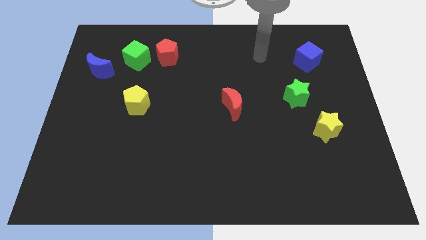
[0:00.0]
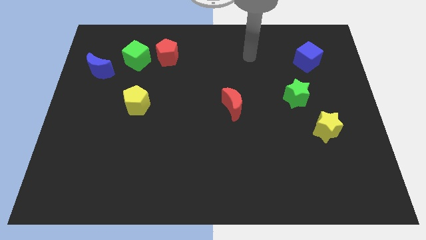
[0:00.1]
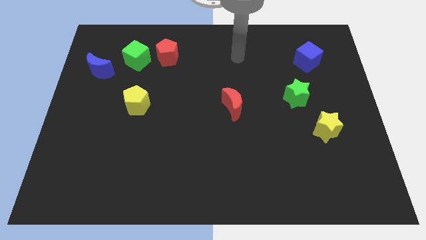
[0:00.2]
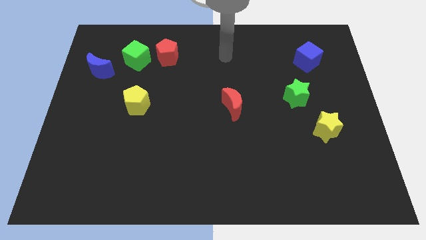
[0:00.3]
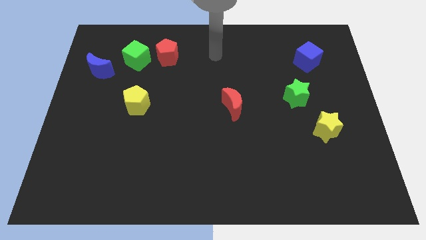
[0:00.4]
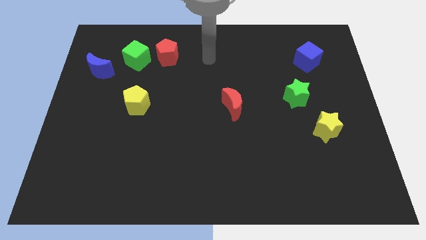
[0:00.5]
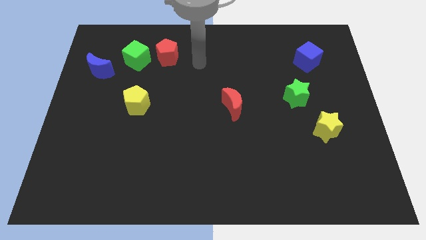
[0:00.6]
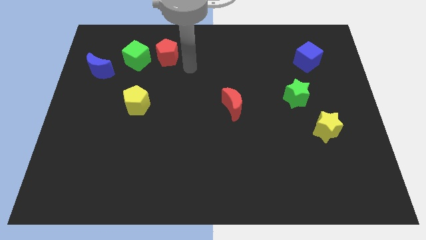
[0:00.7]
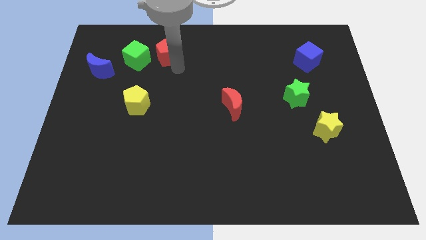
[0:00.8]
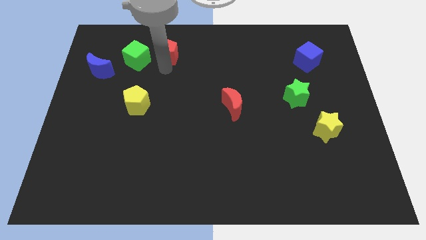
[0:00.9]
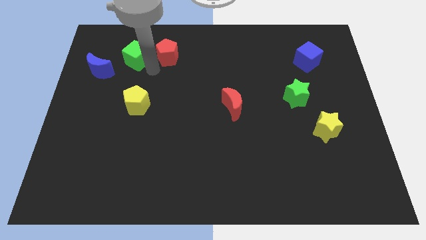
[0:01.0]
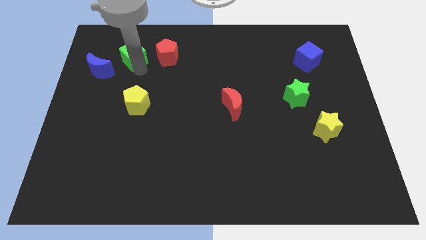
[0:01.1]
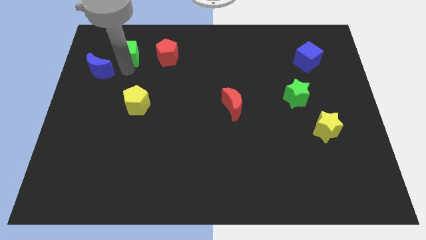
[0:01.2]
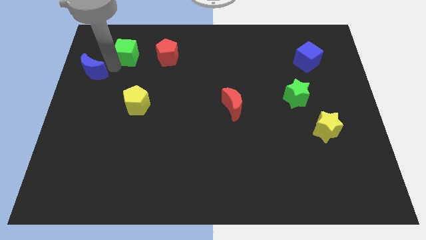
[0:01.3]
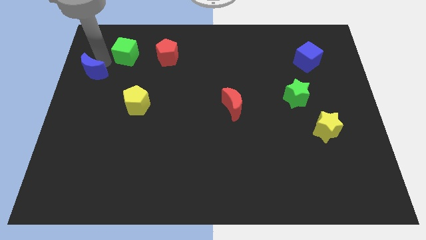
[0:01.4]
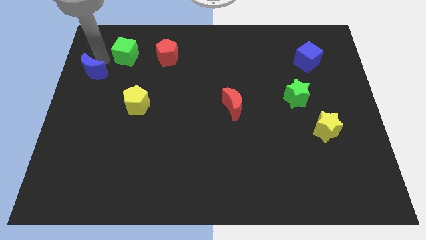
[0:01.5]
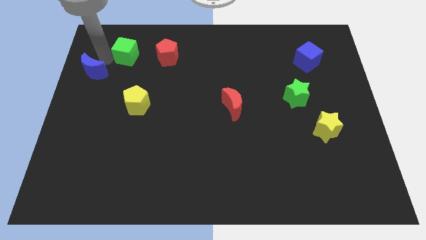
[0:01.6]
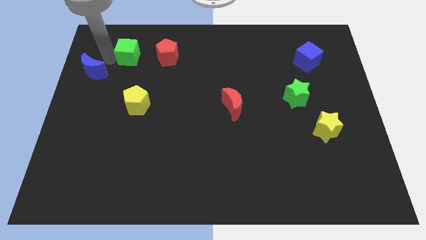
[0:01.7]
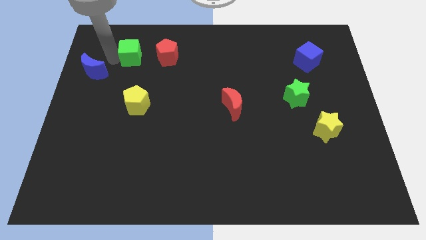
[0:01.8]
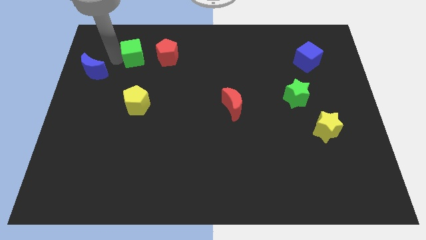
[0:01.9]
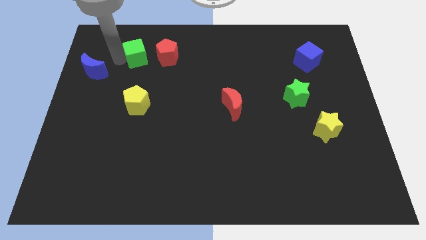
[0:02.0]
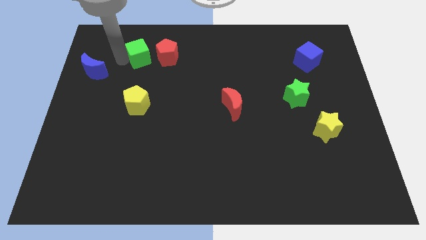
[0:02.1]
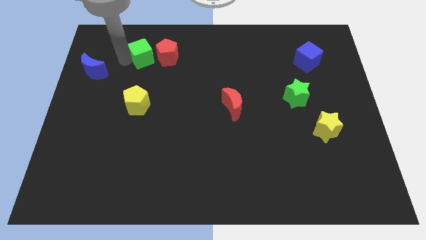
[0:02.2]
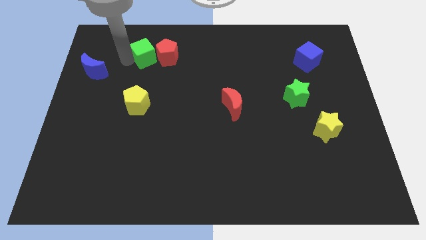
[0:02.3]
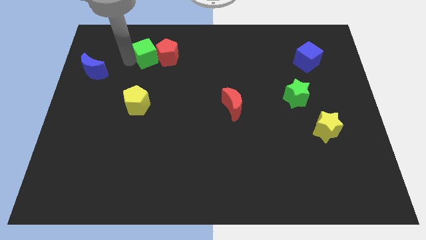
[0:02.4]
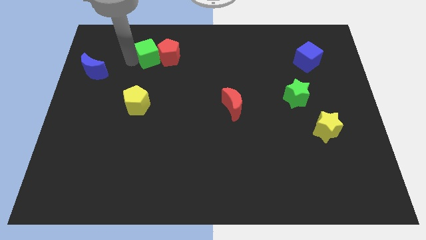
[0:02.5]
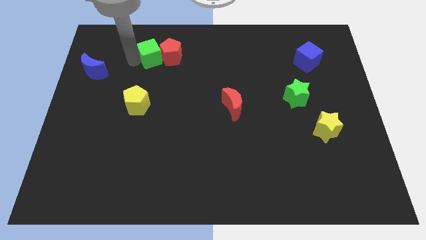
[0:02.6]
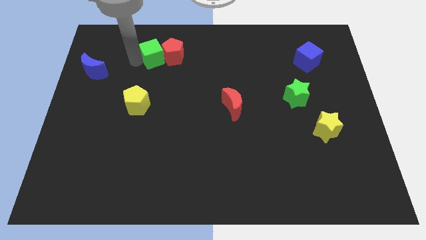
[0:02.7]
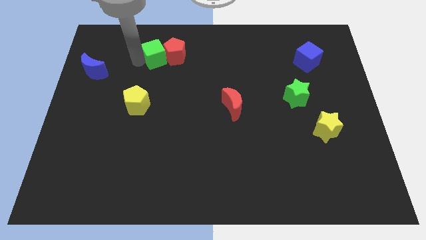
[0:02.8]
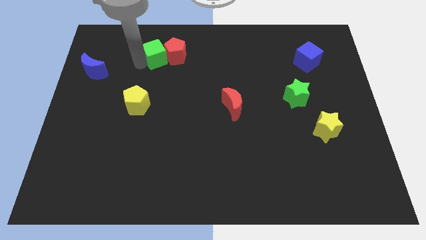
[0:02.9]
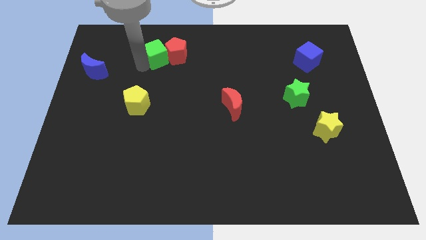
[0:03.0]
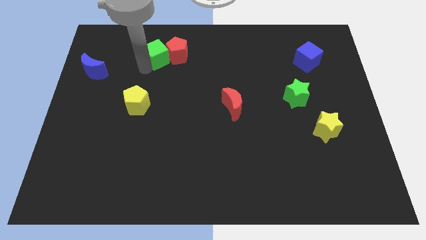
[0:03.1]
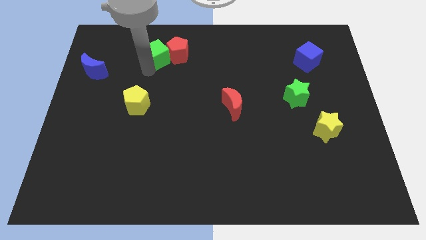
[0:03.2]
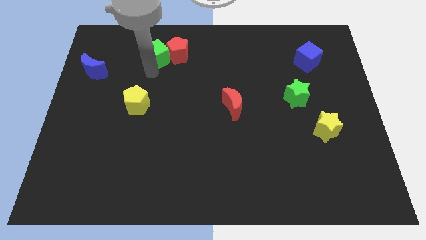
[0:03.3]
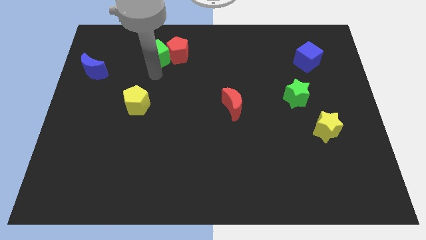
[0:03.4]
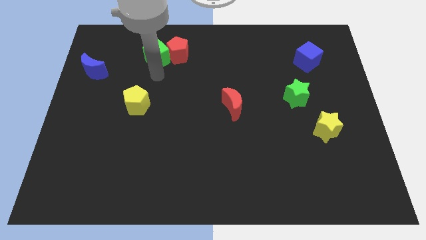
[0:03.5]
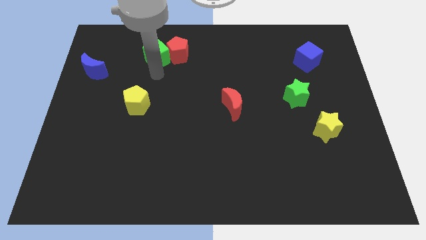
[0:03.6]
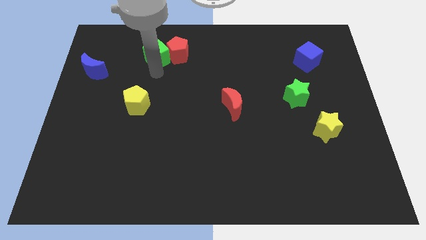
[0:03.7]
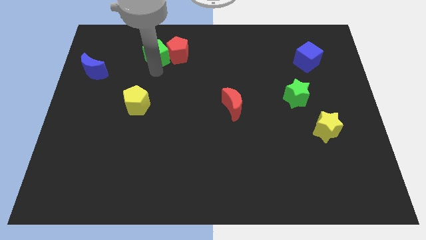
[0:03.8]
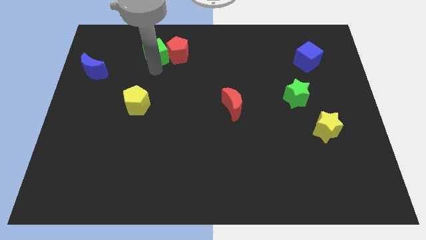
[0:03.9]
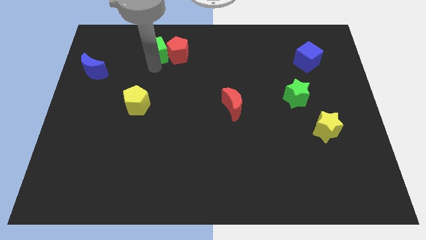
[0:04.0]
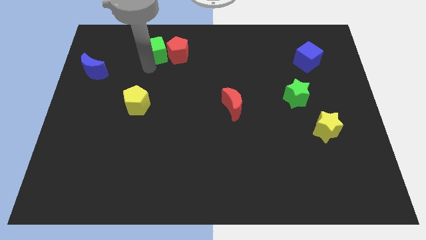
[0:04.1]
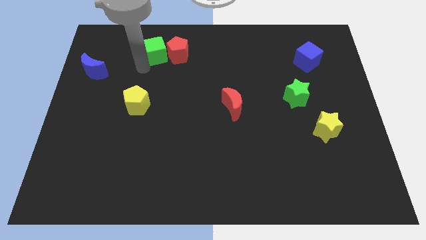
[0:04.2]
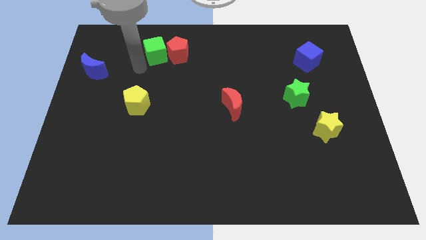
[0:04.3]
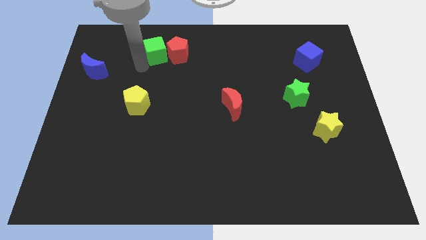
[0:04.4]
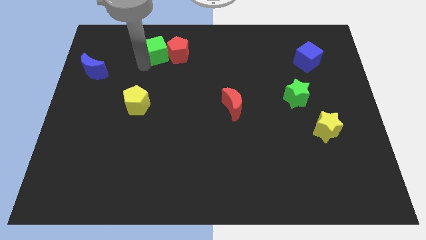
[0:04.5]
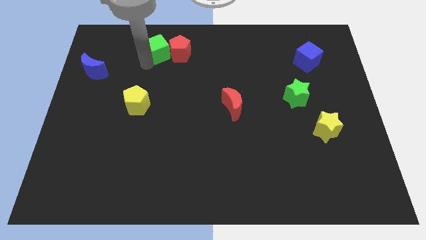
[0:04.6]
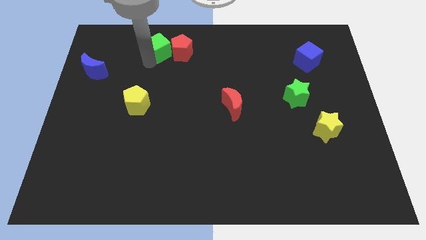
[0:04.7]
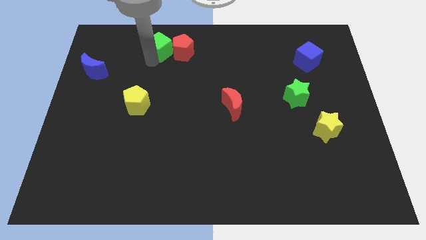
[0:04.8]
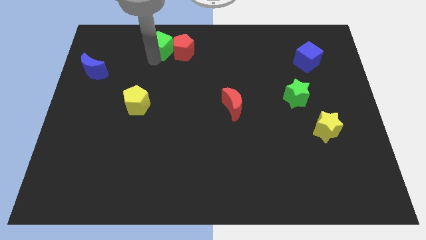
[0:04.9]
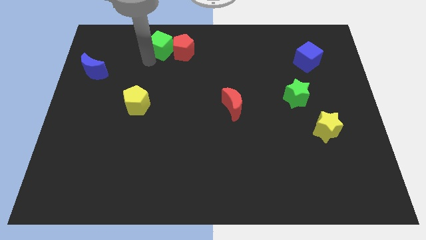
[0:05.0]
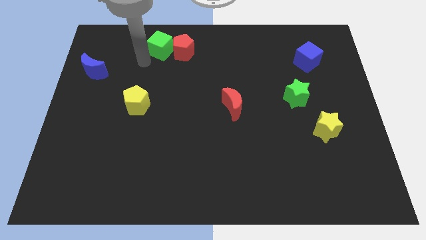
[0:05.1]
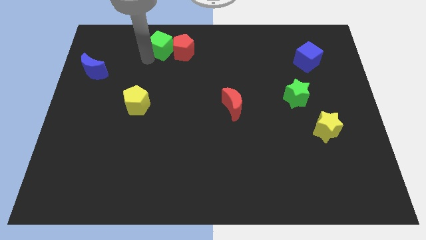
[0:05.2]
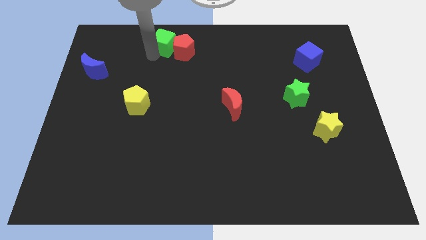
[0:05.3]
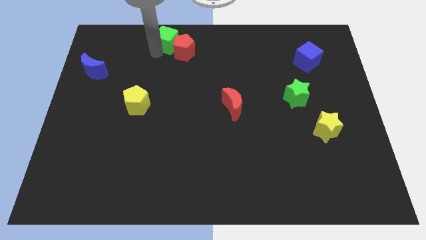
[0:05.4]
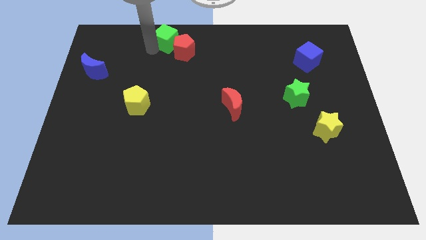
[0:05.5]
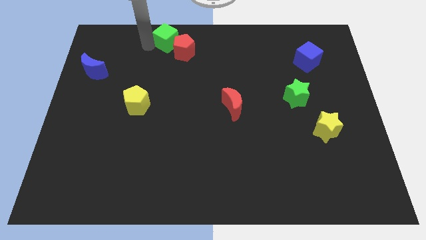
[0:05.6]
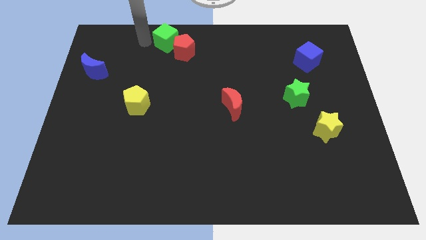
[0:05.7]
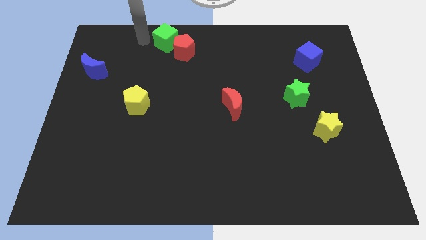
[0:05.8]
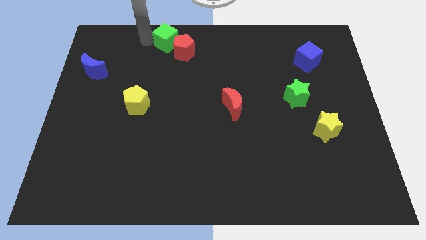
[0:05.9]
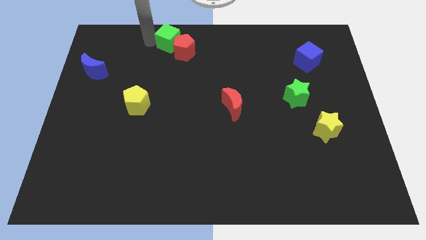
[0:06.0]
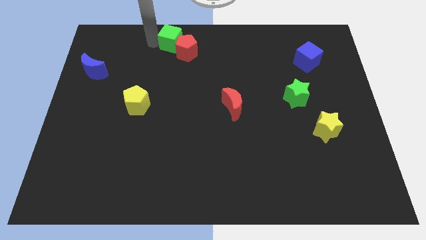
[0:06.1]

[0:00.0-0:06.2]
put the green cube to the towards your base
